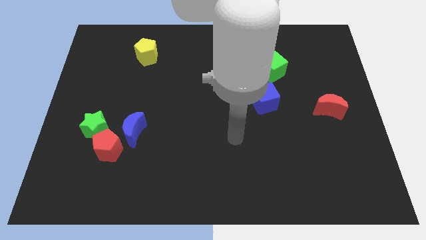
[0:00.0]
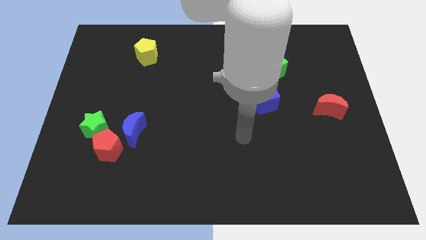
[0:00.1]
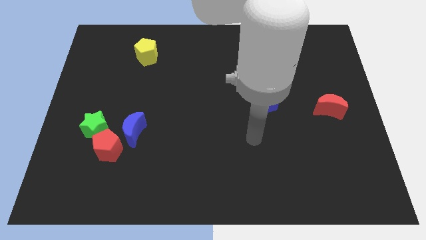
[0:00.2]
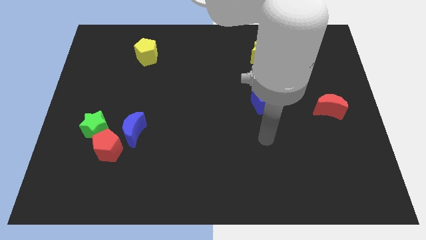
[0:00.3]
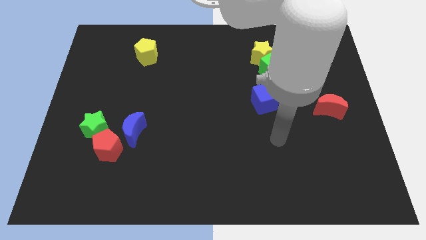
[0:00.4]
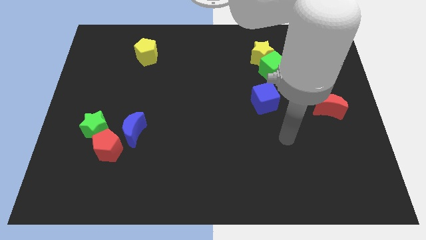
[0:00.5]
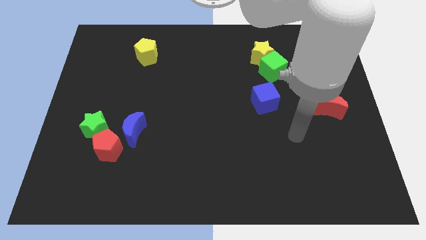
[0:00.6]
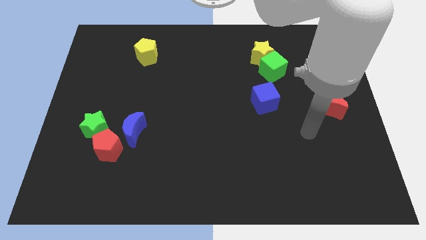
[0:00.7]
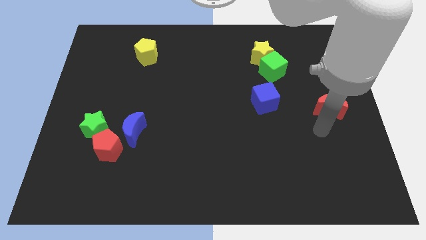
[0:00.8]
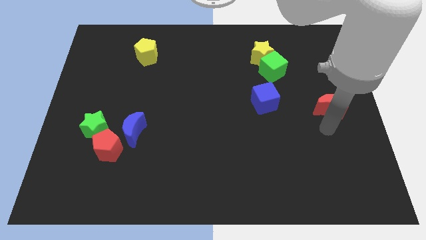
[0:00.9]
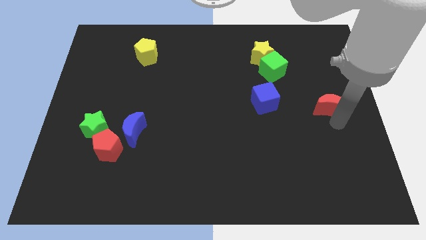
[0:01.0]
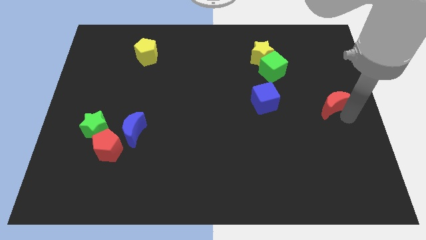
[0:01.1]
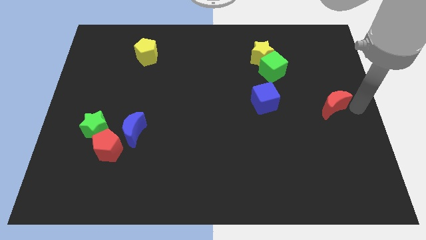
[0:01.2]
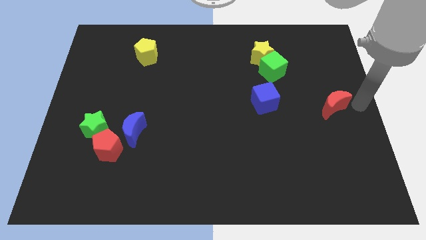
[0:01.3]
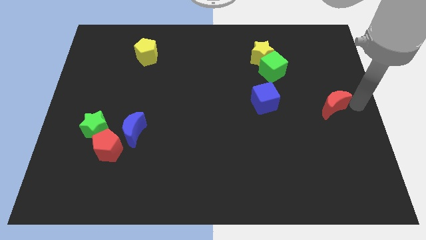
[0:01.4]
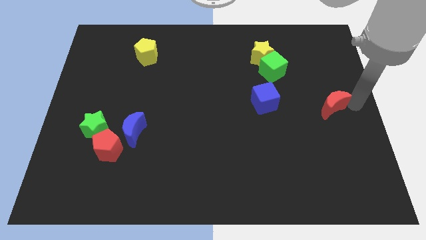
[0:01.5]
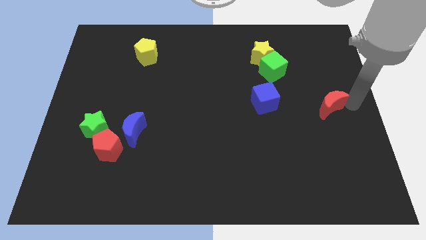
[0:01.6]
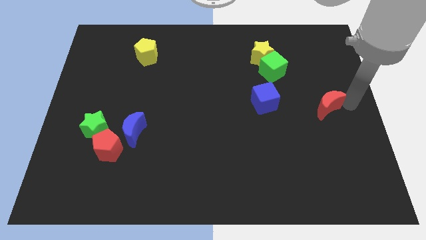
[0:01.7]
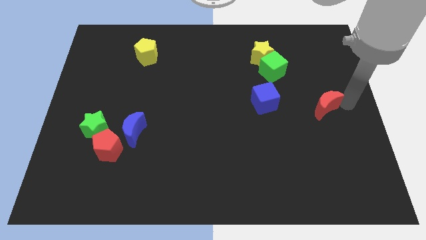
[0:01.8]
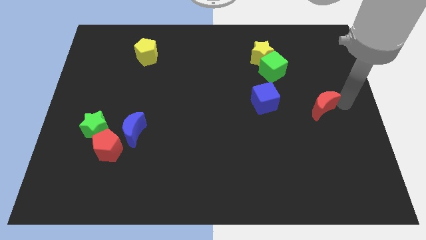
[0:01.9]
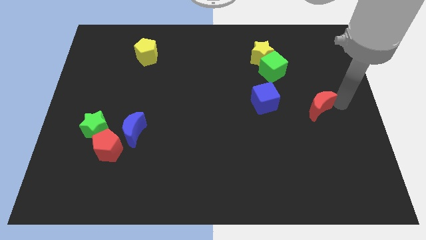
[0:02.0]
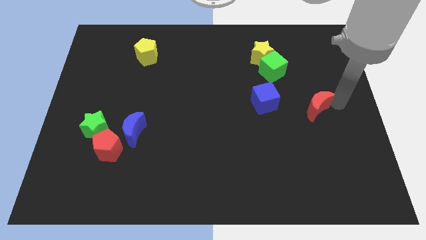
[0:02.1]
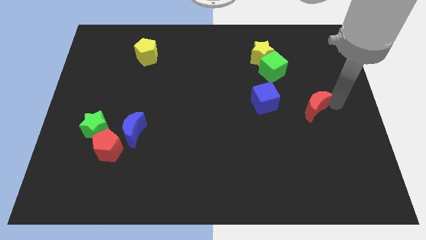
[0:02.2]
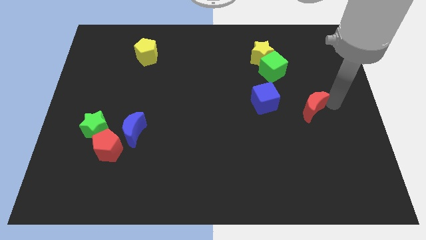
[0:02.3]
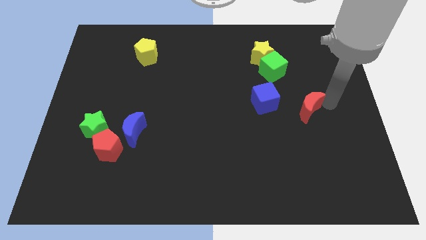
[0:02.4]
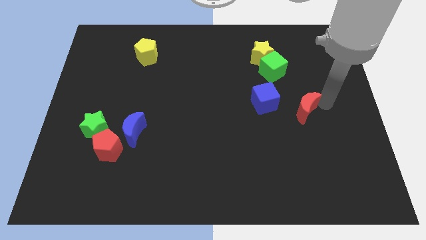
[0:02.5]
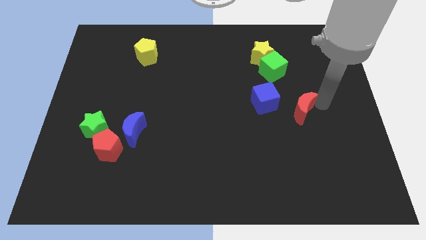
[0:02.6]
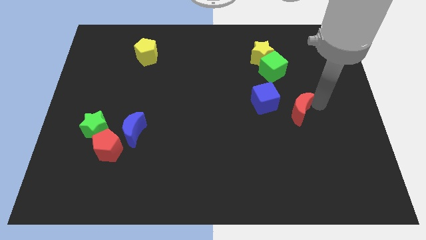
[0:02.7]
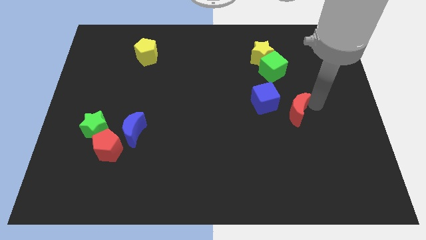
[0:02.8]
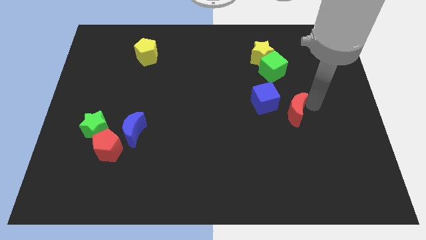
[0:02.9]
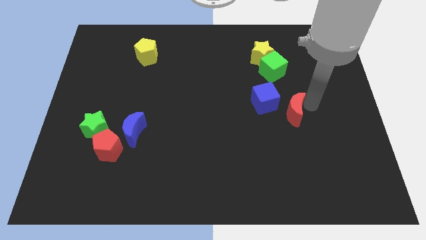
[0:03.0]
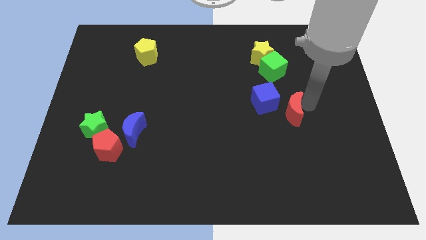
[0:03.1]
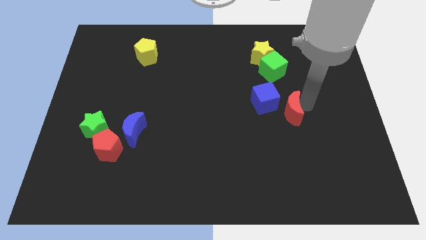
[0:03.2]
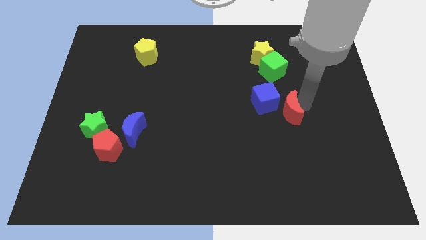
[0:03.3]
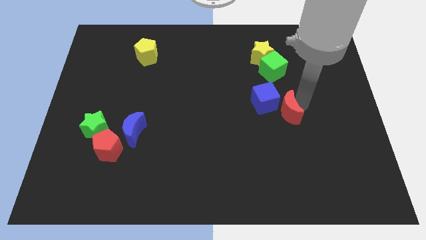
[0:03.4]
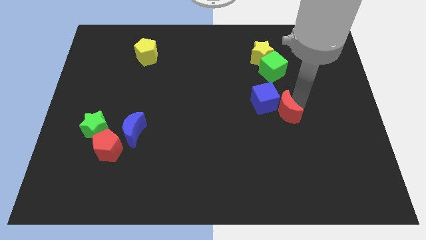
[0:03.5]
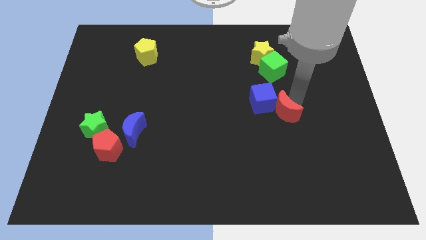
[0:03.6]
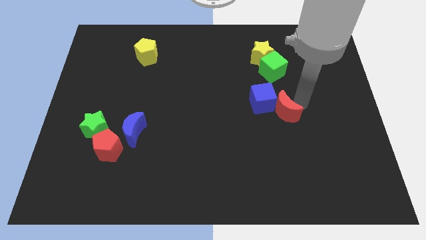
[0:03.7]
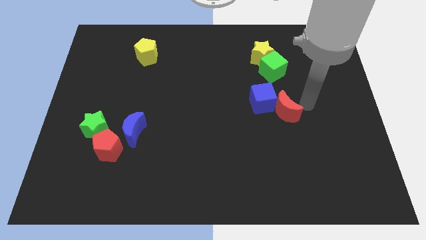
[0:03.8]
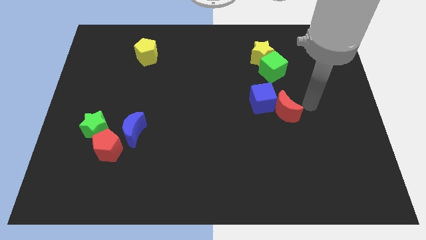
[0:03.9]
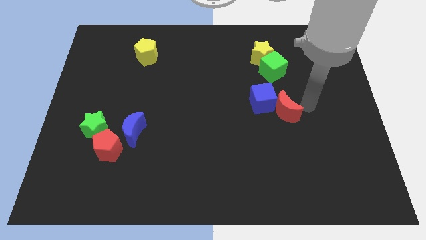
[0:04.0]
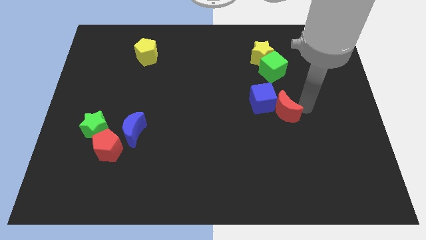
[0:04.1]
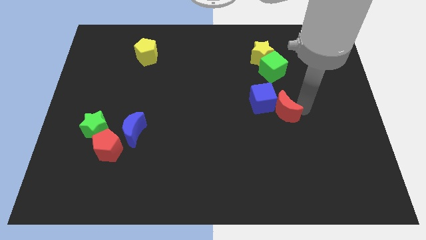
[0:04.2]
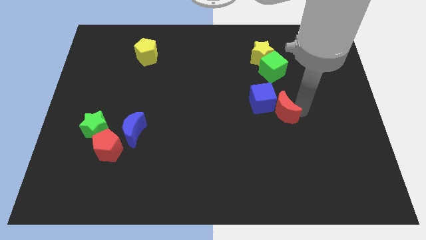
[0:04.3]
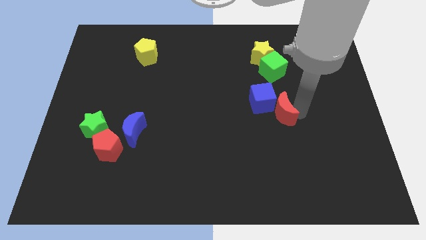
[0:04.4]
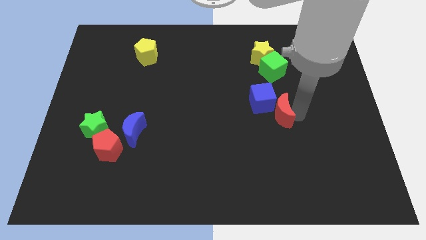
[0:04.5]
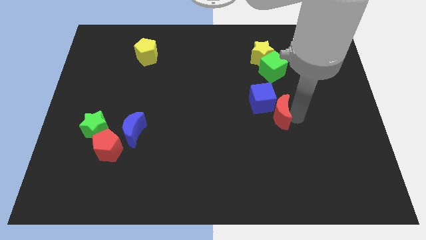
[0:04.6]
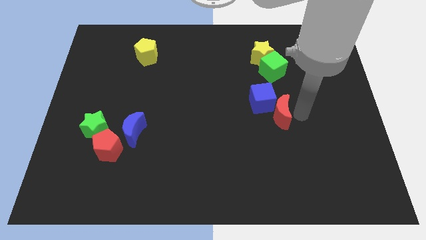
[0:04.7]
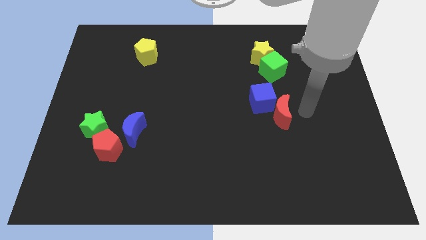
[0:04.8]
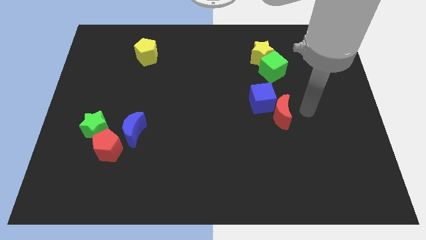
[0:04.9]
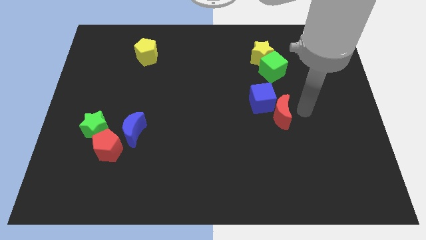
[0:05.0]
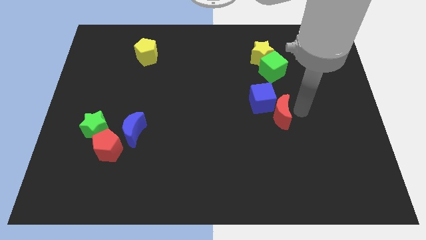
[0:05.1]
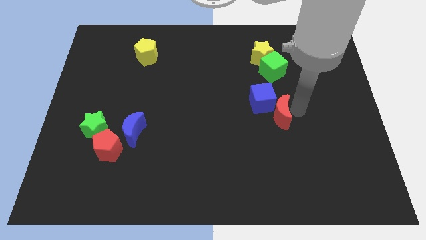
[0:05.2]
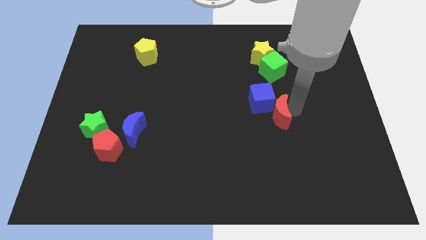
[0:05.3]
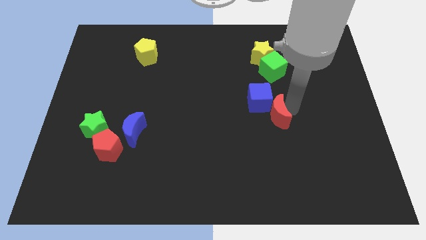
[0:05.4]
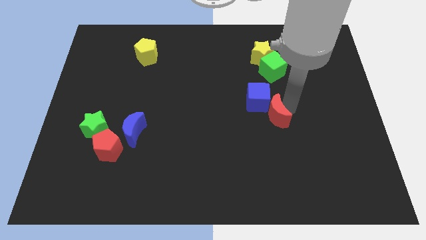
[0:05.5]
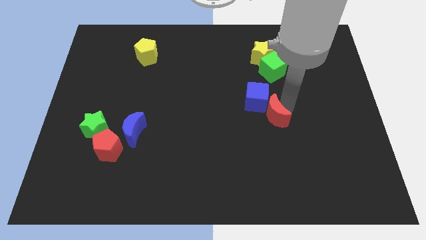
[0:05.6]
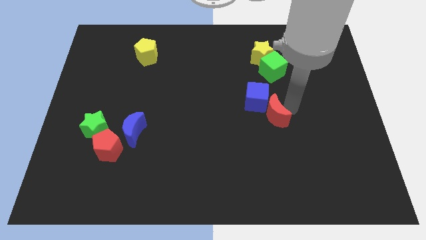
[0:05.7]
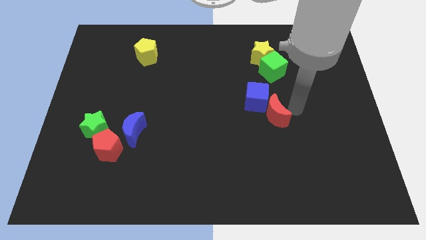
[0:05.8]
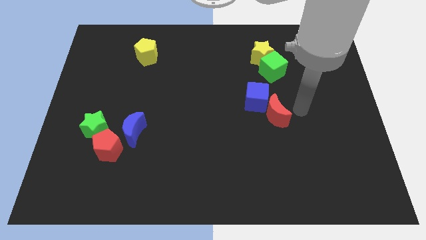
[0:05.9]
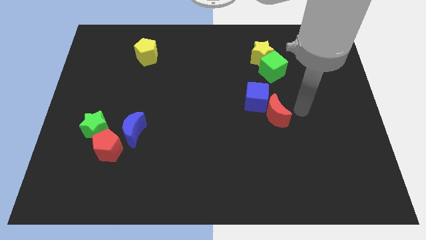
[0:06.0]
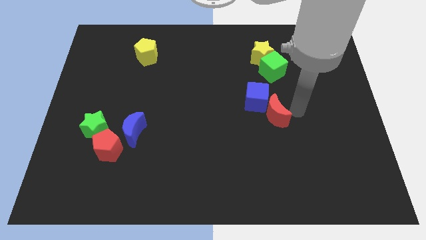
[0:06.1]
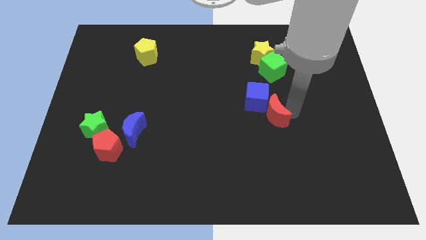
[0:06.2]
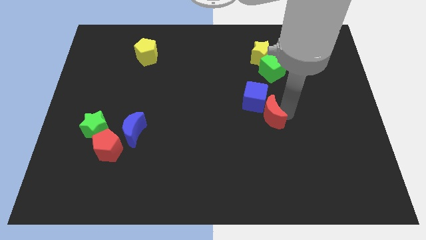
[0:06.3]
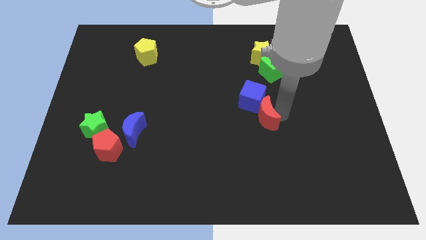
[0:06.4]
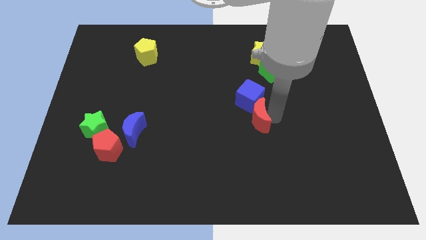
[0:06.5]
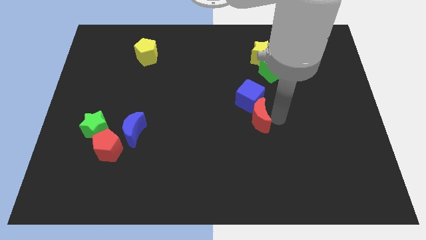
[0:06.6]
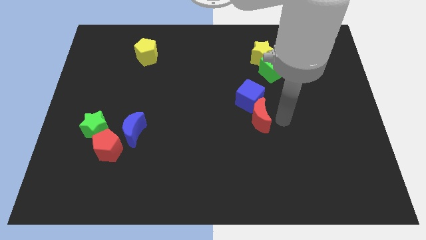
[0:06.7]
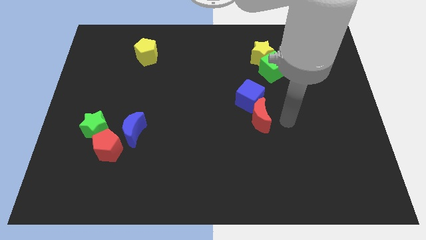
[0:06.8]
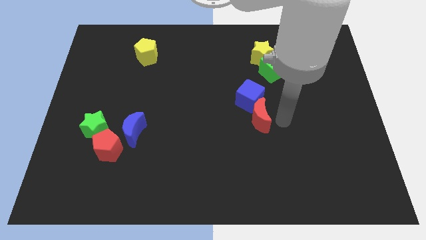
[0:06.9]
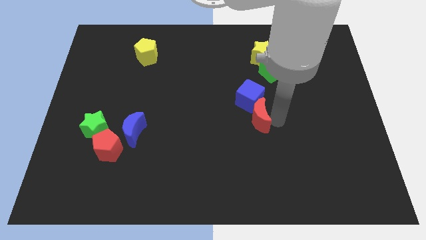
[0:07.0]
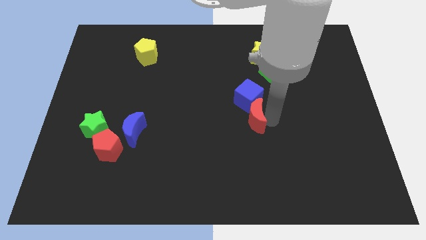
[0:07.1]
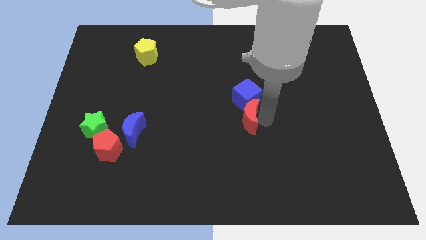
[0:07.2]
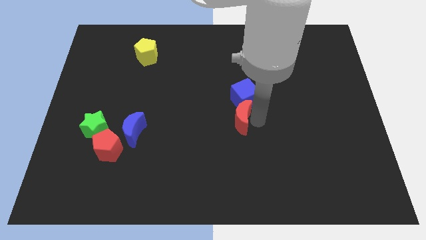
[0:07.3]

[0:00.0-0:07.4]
slide the red moon to the left

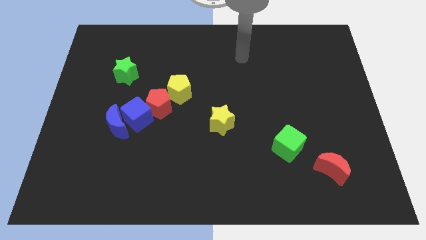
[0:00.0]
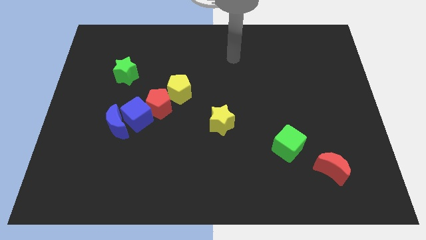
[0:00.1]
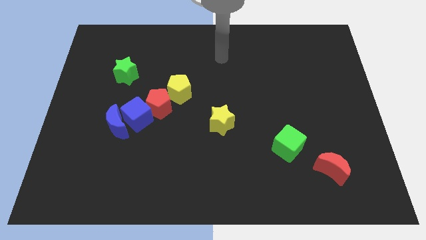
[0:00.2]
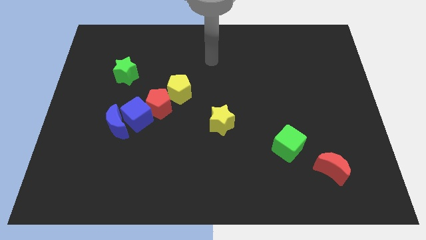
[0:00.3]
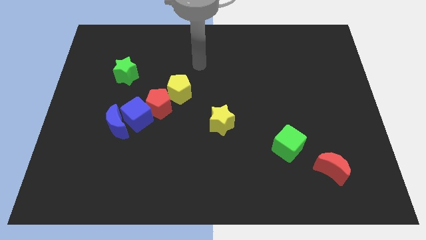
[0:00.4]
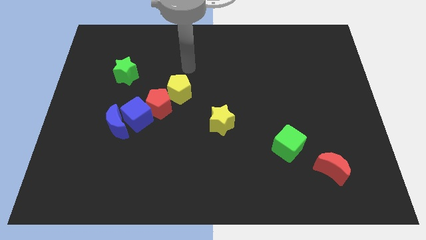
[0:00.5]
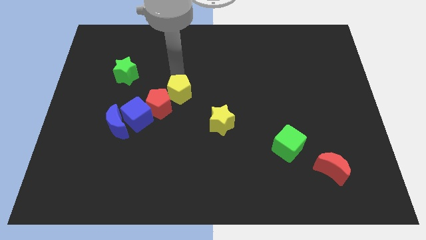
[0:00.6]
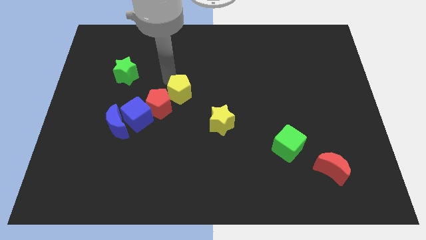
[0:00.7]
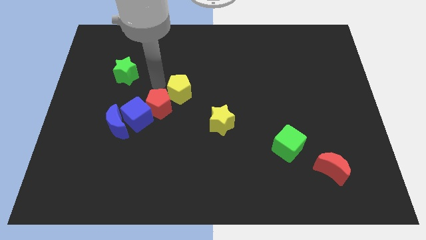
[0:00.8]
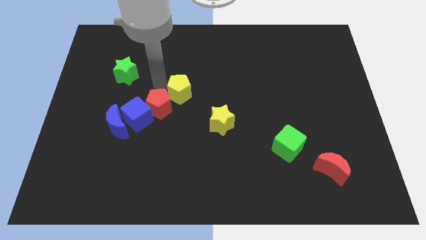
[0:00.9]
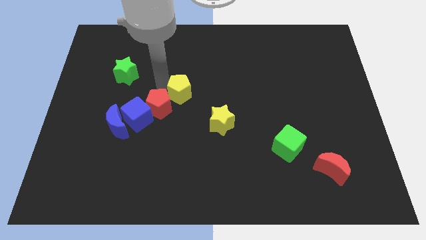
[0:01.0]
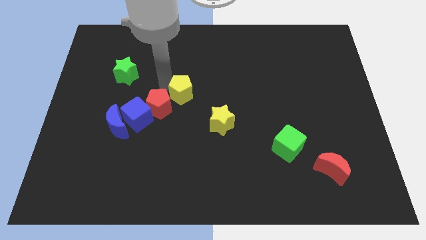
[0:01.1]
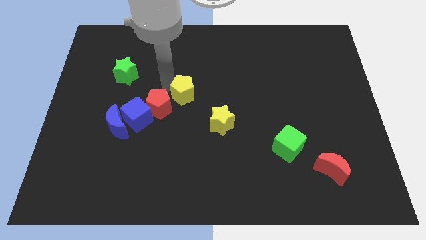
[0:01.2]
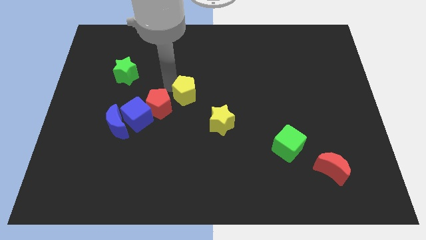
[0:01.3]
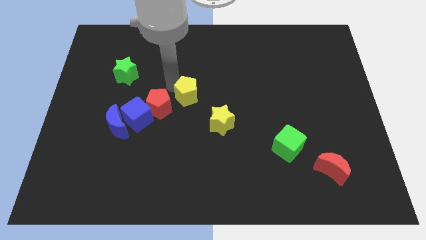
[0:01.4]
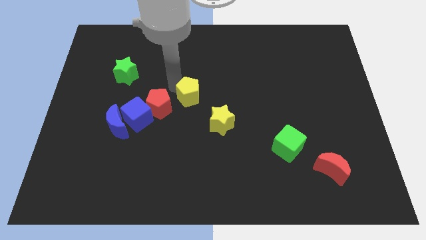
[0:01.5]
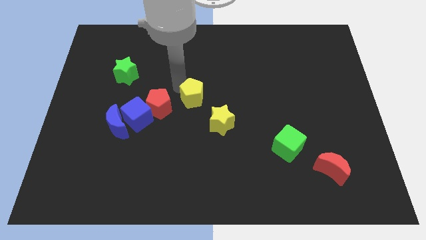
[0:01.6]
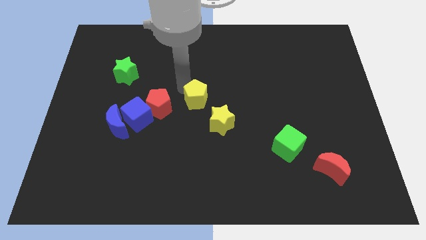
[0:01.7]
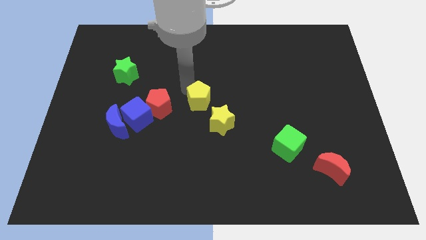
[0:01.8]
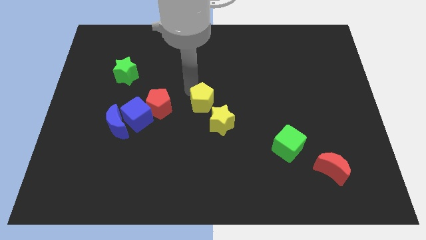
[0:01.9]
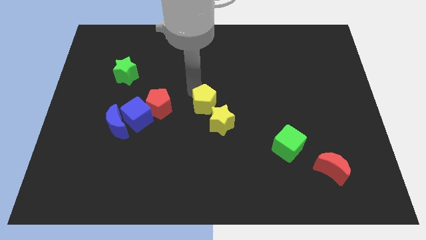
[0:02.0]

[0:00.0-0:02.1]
push the yellow pentagon down and to the right a little bit
